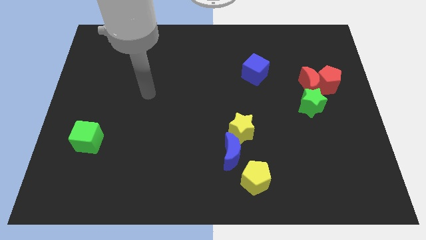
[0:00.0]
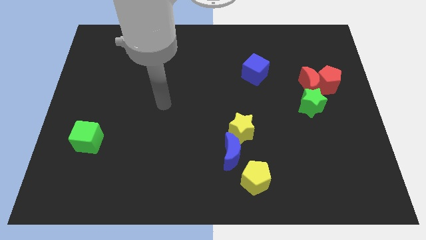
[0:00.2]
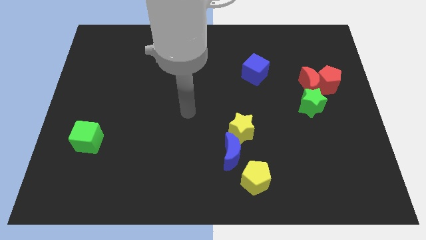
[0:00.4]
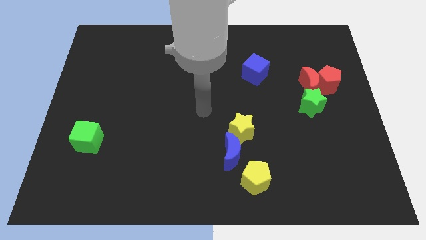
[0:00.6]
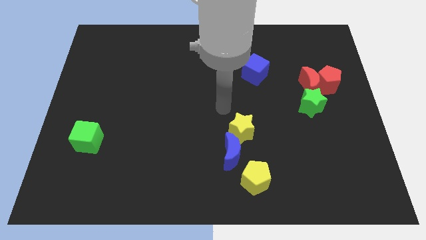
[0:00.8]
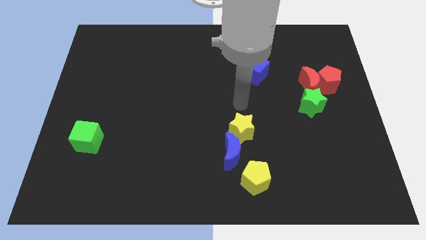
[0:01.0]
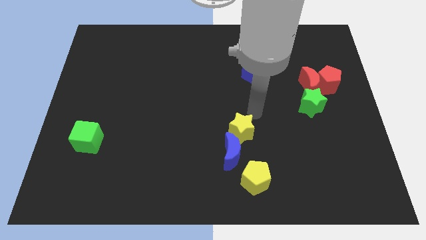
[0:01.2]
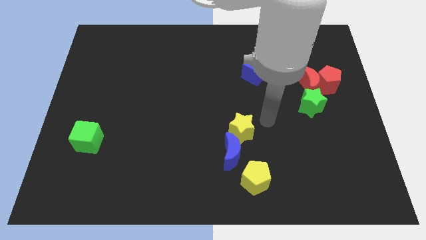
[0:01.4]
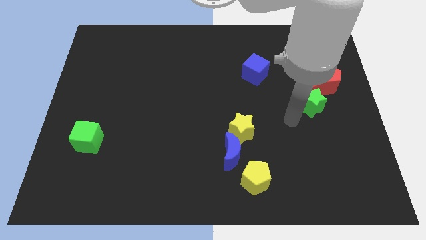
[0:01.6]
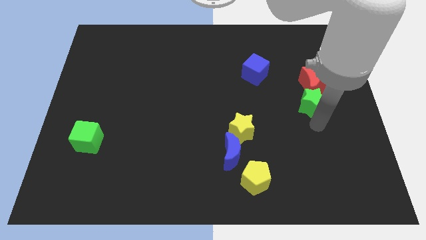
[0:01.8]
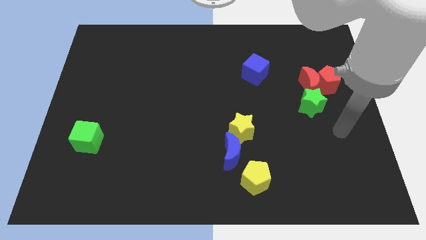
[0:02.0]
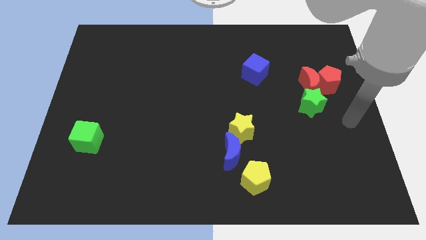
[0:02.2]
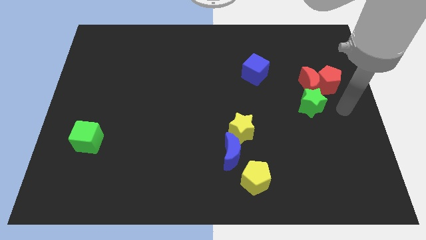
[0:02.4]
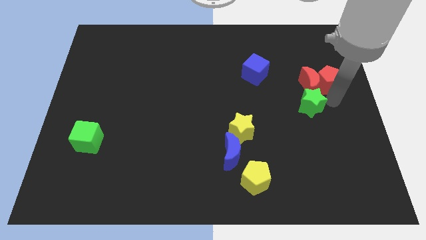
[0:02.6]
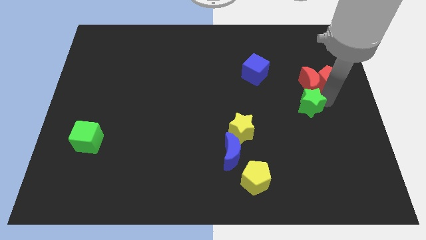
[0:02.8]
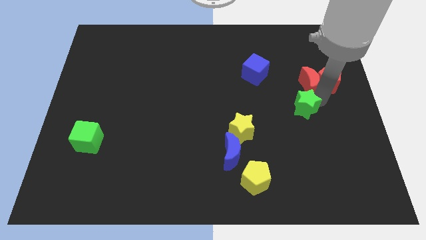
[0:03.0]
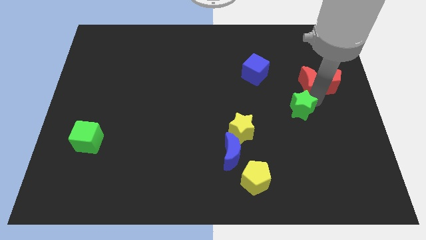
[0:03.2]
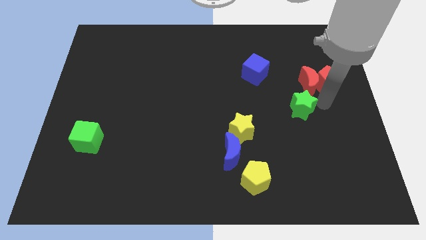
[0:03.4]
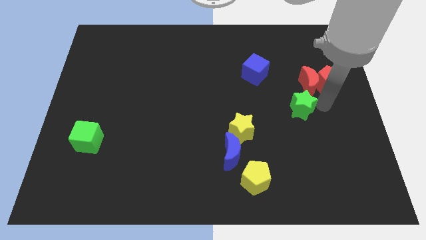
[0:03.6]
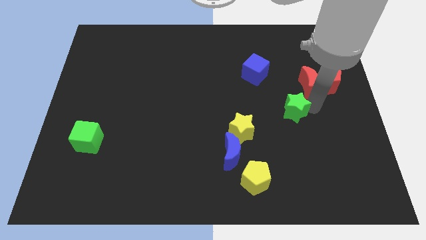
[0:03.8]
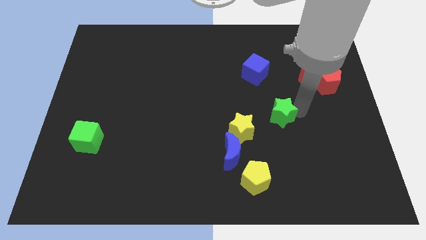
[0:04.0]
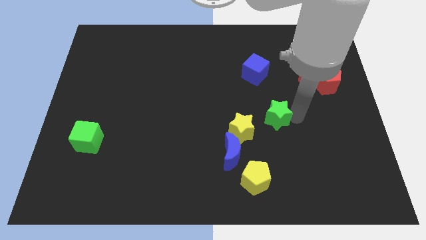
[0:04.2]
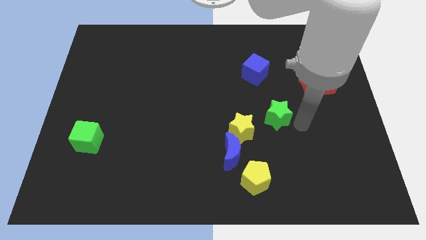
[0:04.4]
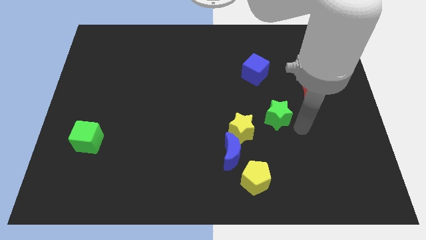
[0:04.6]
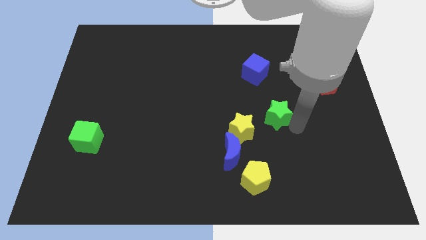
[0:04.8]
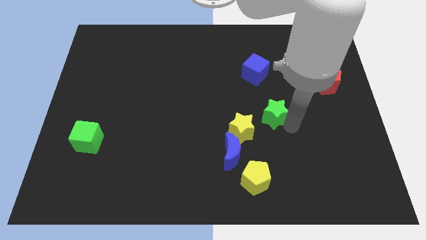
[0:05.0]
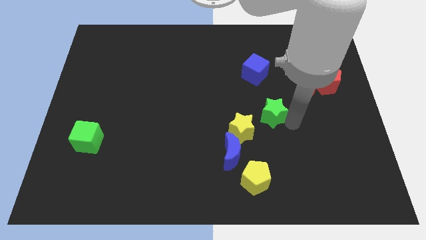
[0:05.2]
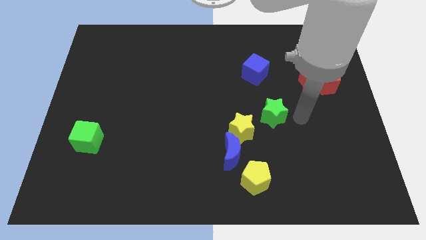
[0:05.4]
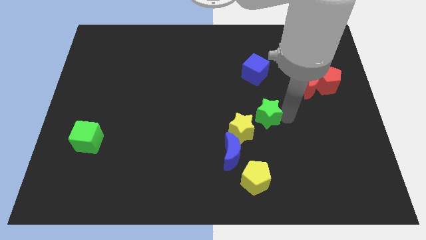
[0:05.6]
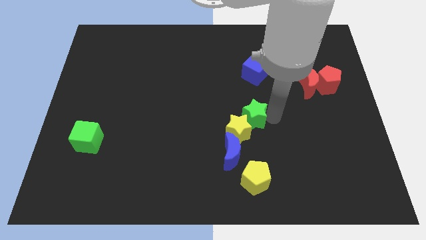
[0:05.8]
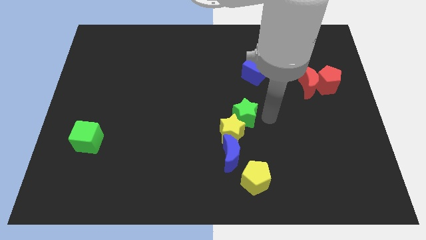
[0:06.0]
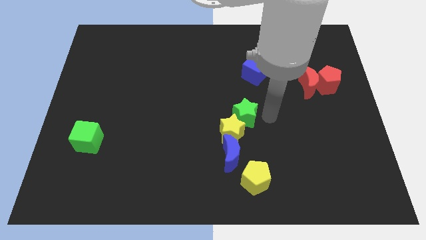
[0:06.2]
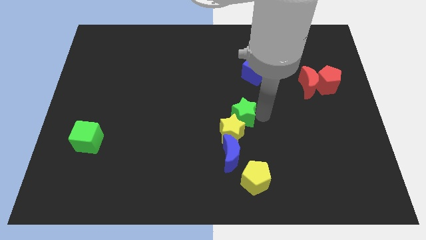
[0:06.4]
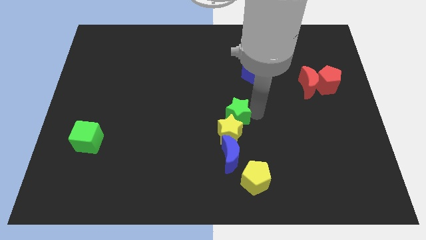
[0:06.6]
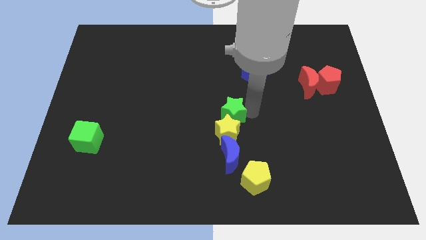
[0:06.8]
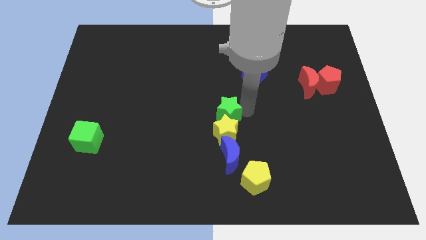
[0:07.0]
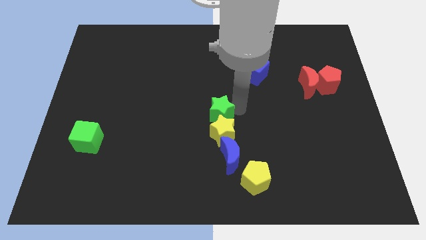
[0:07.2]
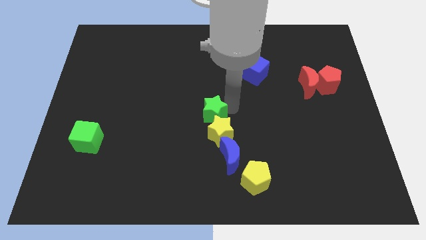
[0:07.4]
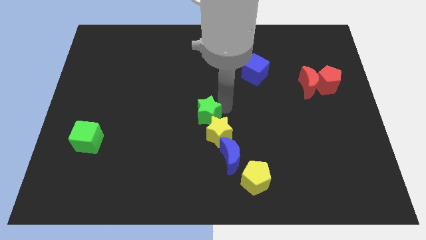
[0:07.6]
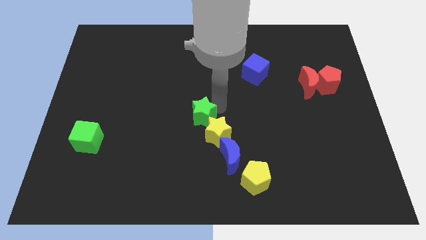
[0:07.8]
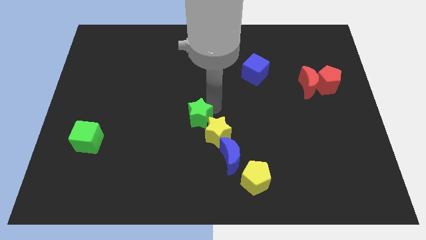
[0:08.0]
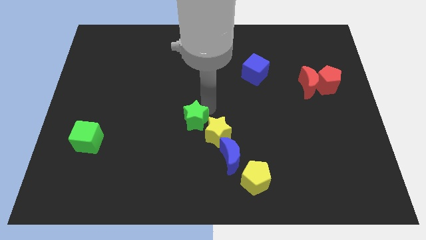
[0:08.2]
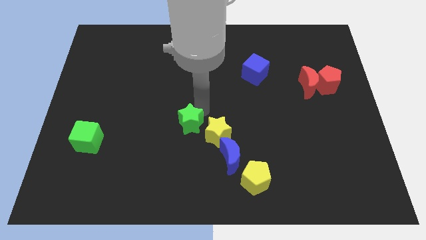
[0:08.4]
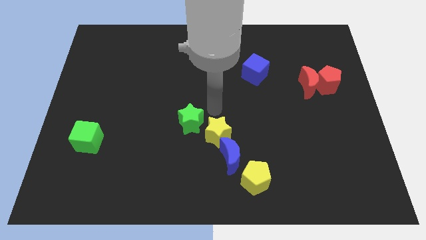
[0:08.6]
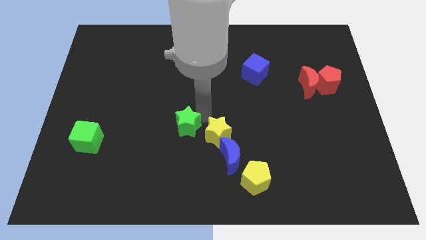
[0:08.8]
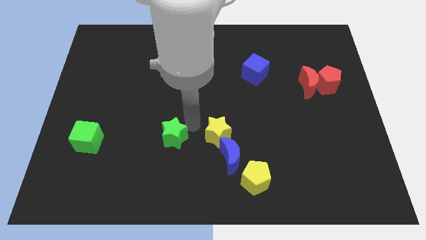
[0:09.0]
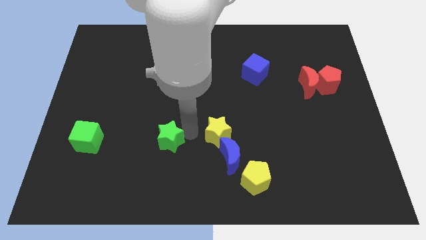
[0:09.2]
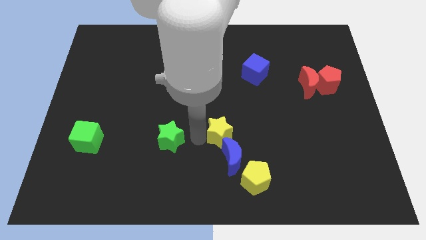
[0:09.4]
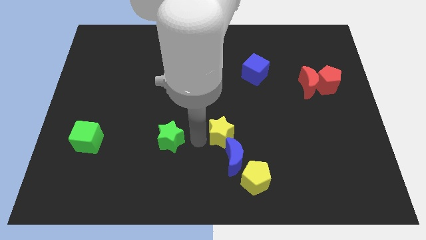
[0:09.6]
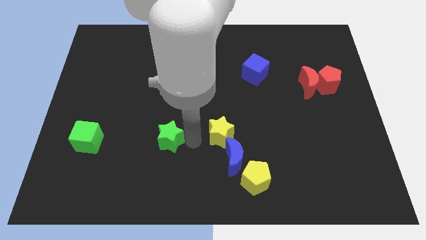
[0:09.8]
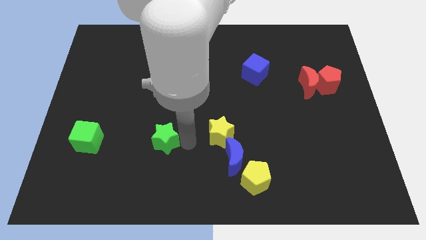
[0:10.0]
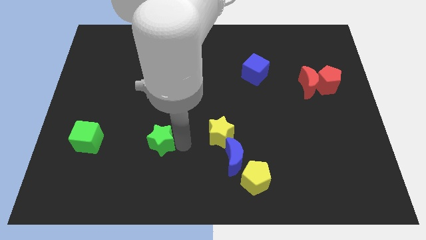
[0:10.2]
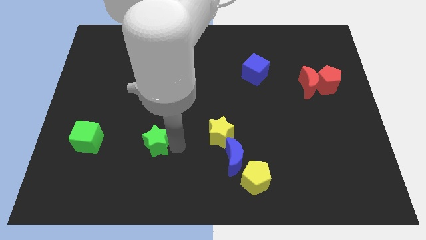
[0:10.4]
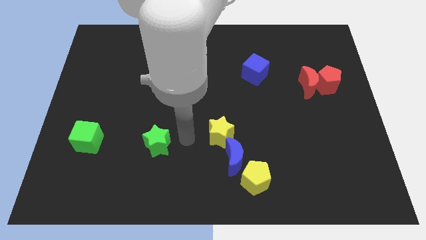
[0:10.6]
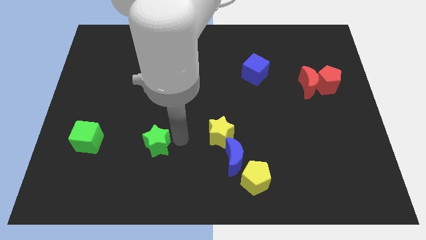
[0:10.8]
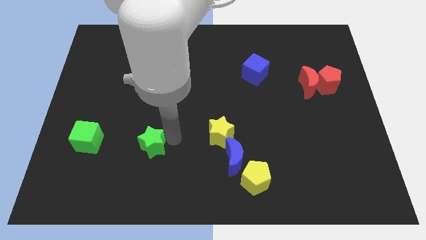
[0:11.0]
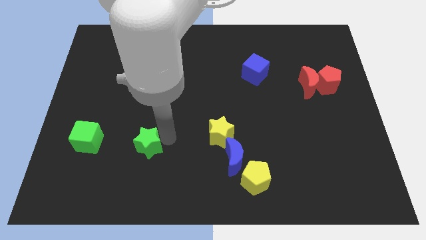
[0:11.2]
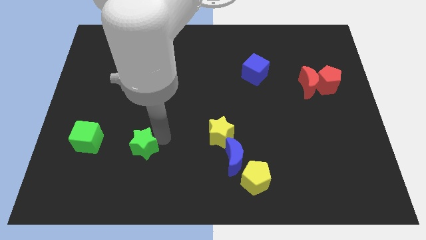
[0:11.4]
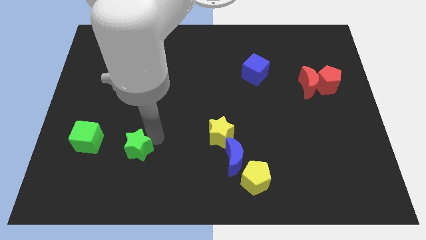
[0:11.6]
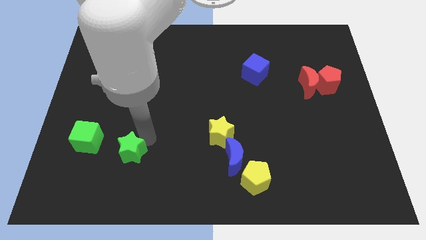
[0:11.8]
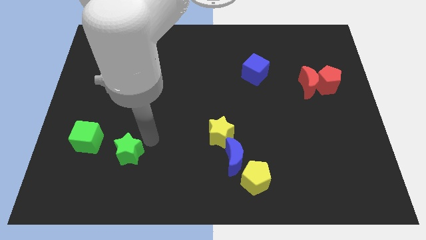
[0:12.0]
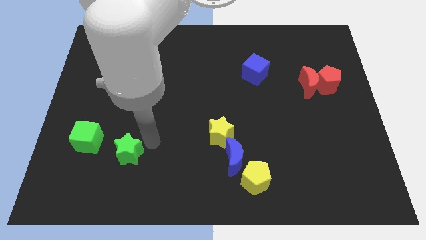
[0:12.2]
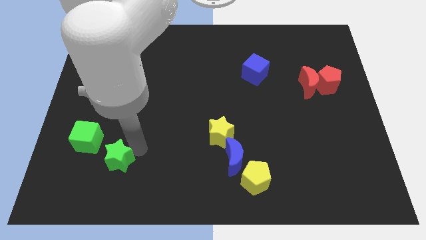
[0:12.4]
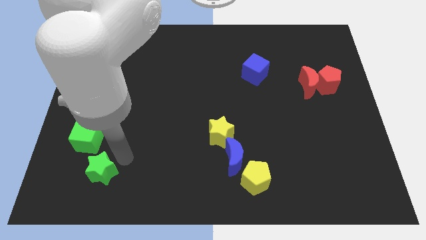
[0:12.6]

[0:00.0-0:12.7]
slide the green star to the bottom side of the green cube

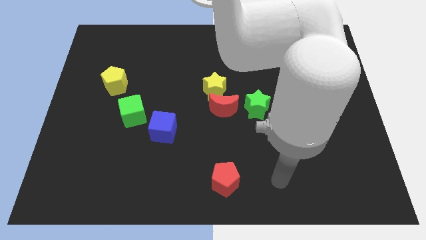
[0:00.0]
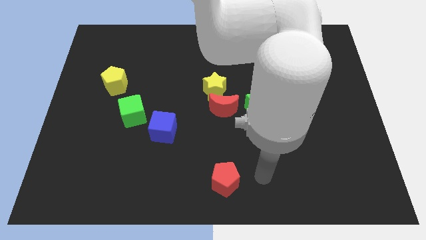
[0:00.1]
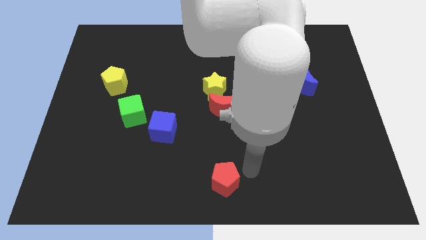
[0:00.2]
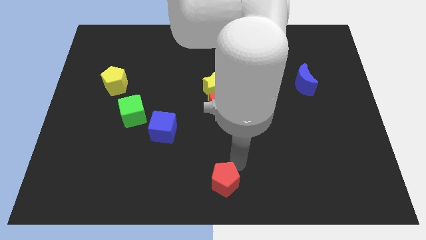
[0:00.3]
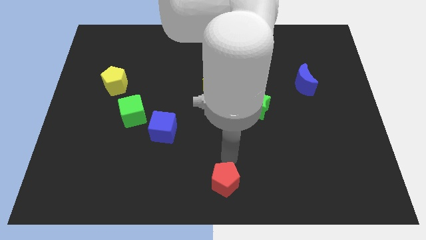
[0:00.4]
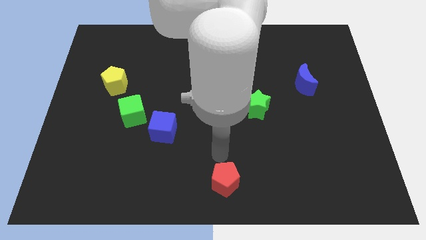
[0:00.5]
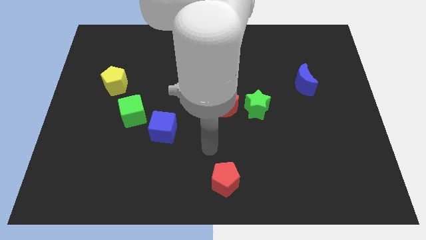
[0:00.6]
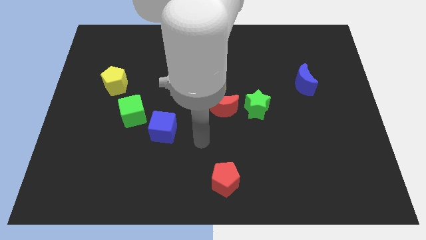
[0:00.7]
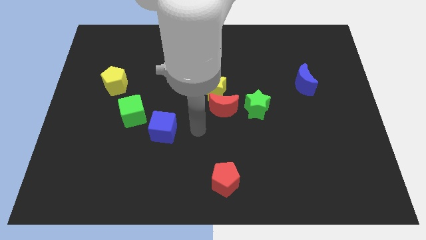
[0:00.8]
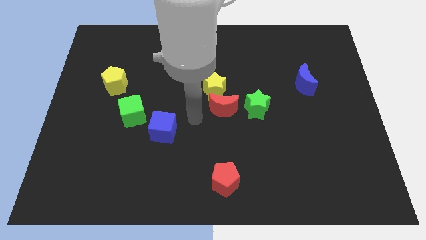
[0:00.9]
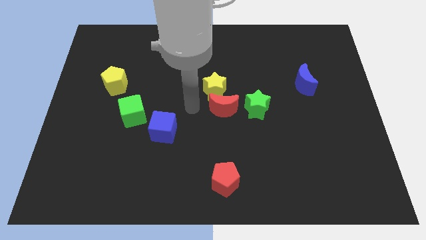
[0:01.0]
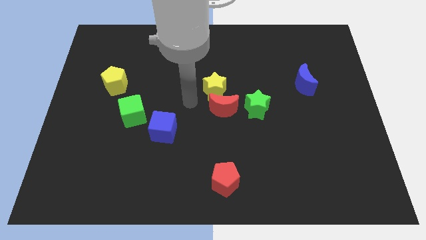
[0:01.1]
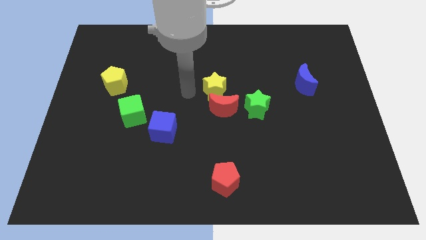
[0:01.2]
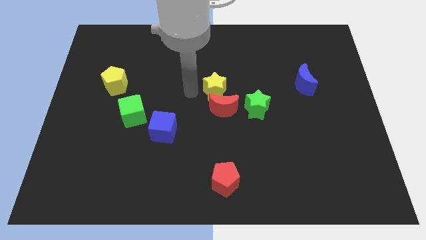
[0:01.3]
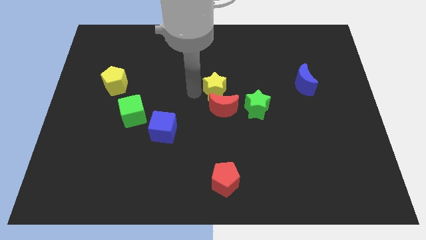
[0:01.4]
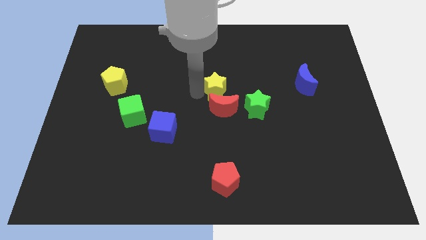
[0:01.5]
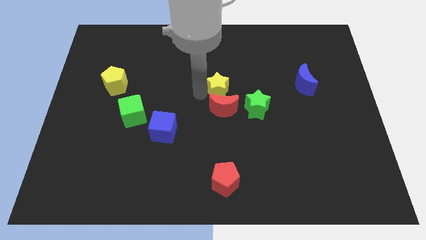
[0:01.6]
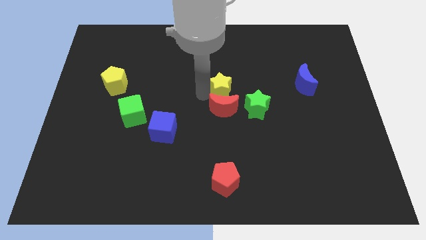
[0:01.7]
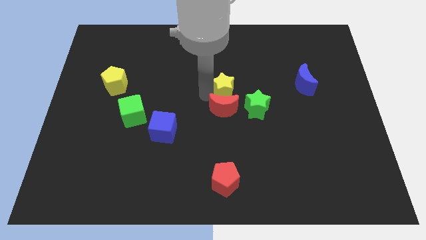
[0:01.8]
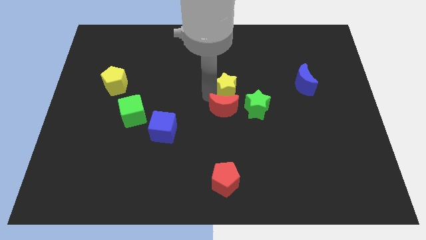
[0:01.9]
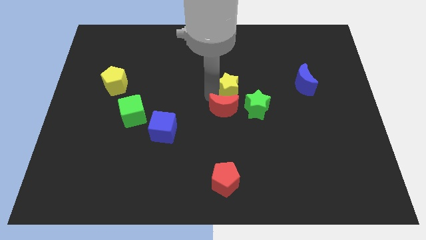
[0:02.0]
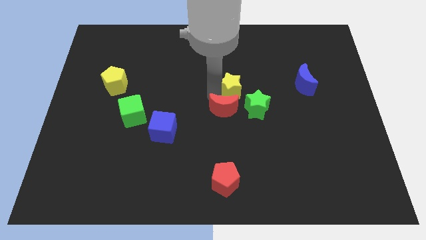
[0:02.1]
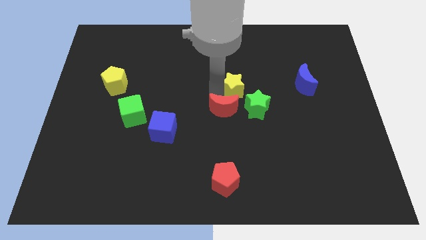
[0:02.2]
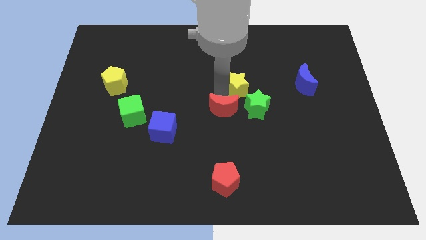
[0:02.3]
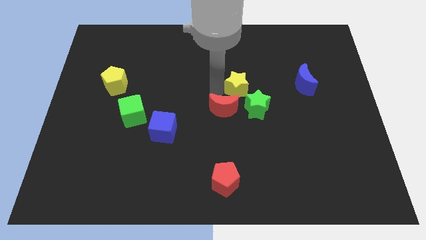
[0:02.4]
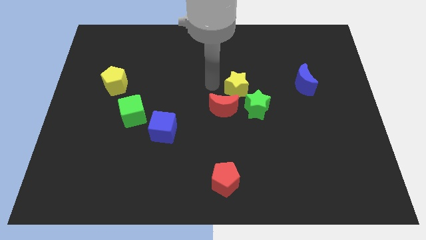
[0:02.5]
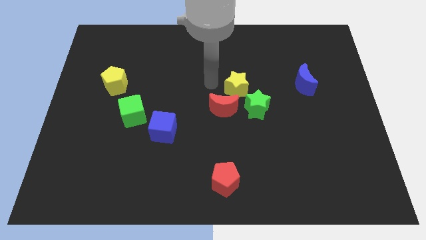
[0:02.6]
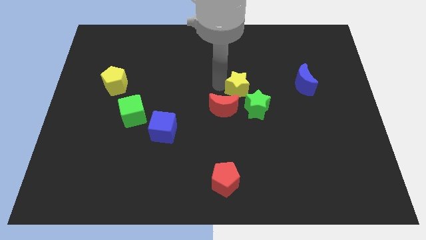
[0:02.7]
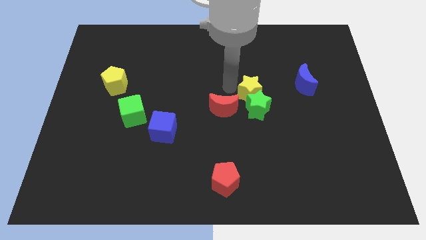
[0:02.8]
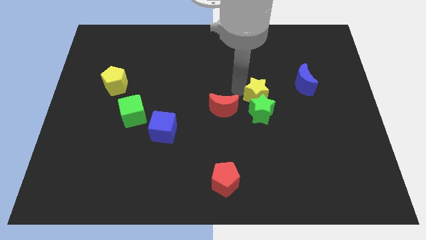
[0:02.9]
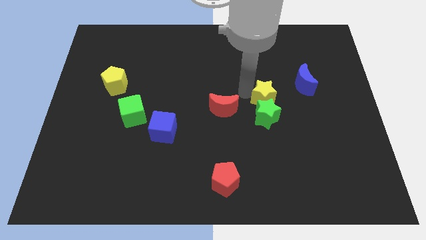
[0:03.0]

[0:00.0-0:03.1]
slide the yellow star to the bottom left of the blue moon
